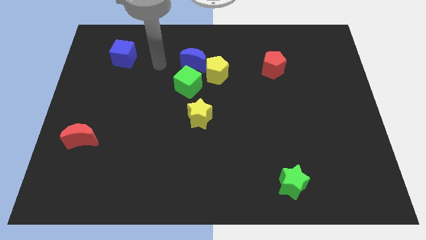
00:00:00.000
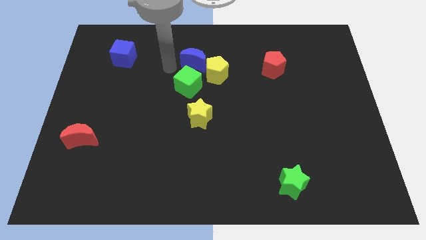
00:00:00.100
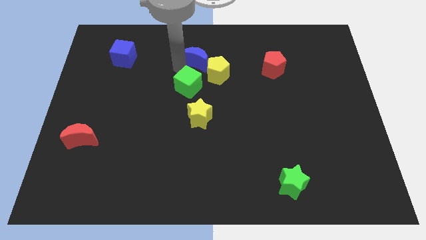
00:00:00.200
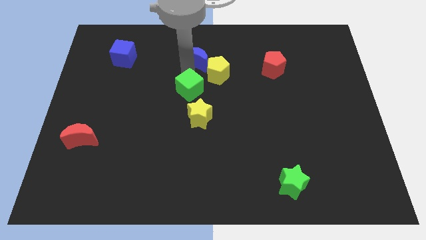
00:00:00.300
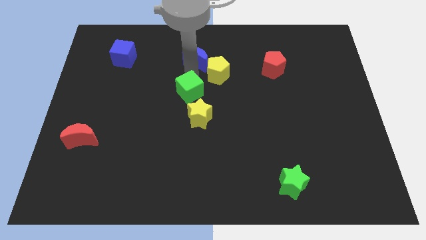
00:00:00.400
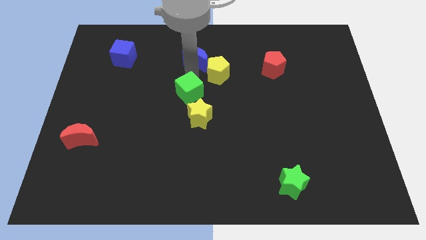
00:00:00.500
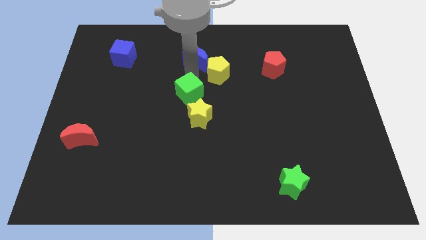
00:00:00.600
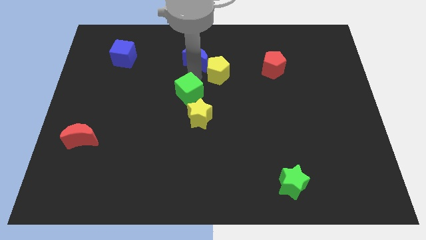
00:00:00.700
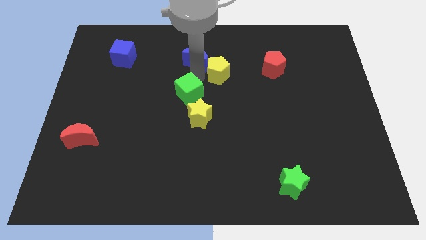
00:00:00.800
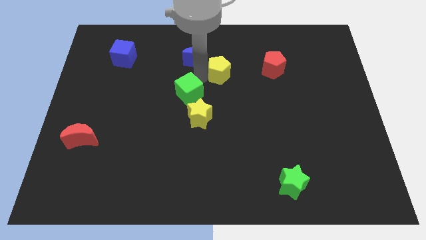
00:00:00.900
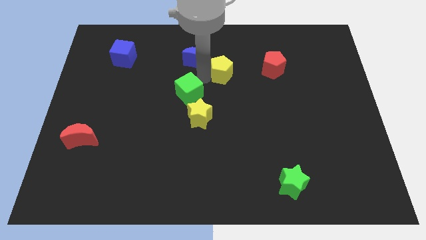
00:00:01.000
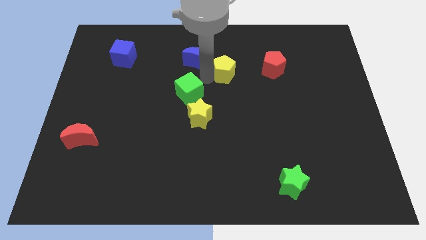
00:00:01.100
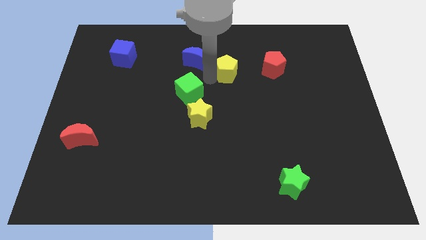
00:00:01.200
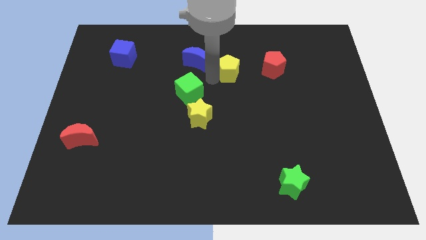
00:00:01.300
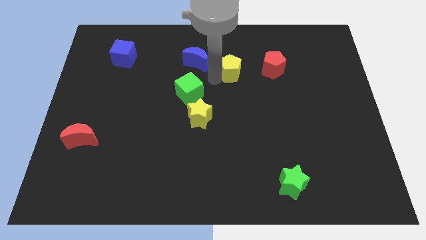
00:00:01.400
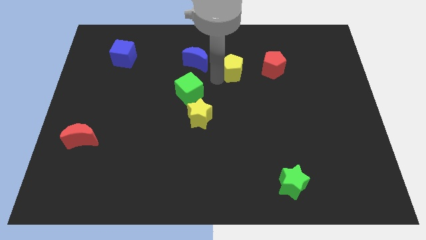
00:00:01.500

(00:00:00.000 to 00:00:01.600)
separate the yellow pentagon from the blue moon and green cube

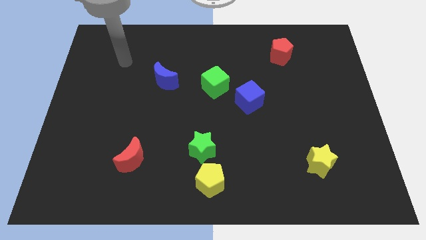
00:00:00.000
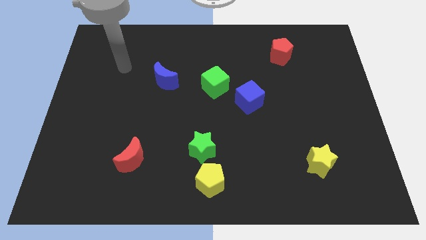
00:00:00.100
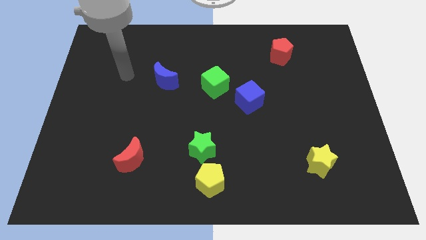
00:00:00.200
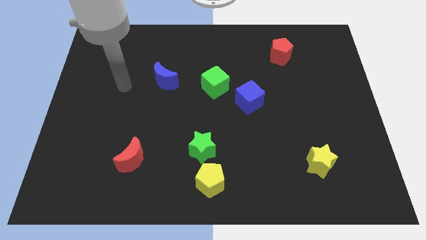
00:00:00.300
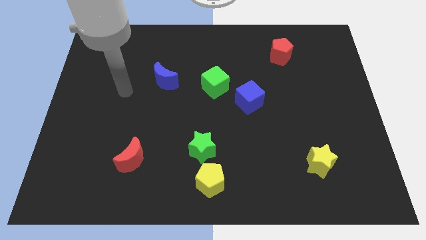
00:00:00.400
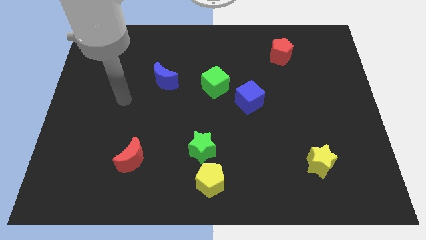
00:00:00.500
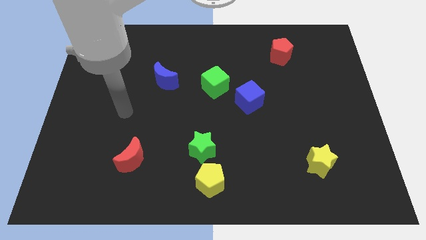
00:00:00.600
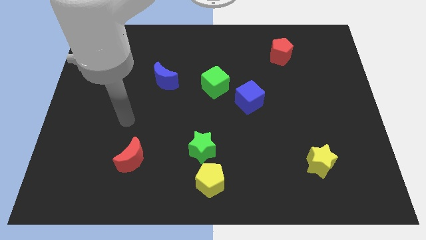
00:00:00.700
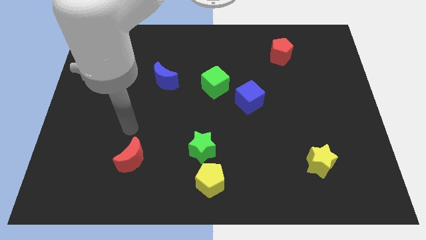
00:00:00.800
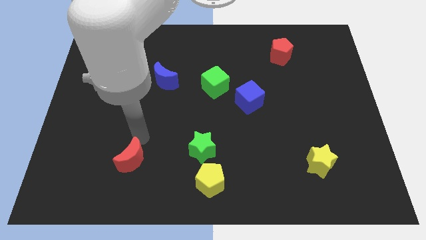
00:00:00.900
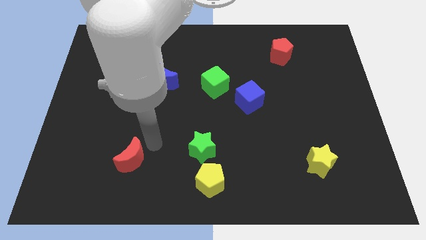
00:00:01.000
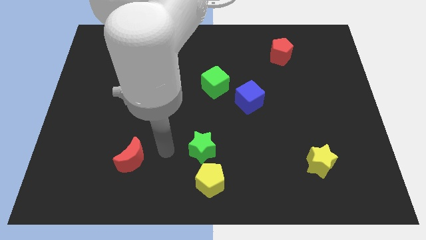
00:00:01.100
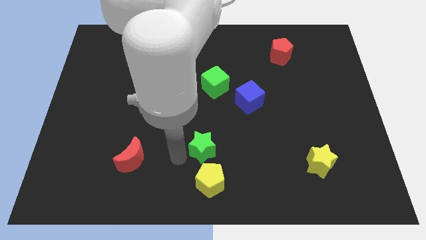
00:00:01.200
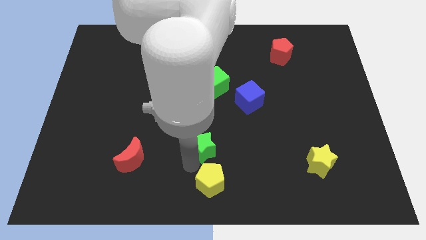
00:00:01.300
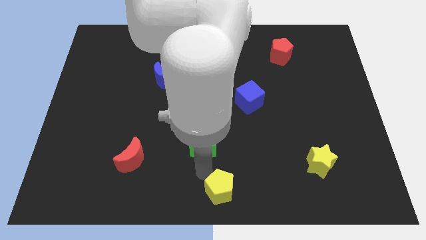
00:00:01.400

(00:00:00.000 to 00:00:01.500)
separate the green star from the yellow pentagon

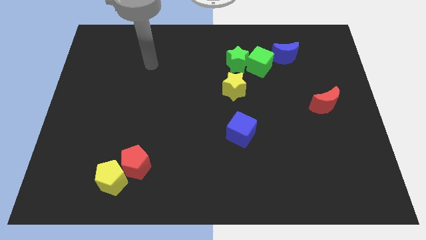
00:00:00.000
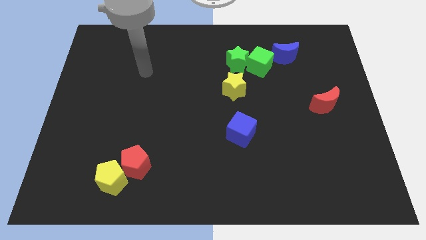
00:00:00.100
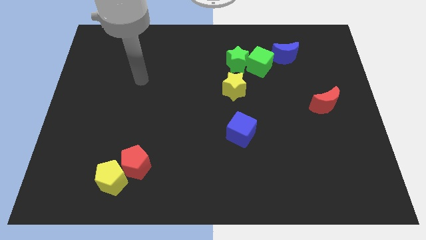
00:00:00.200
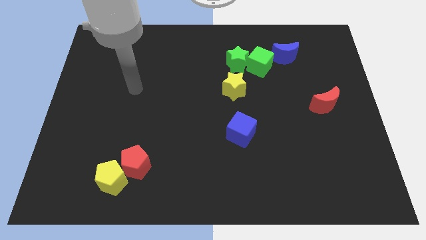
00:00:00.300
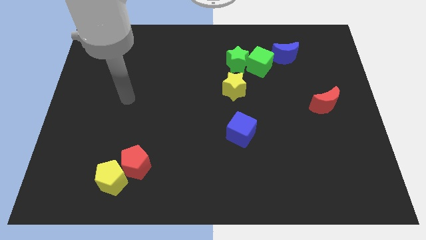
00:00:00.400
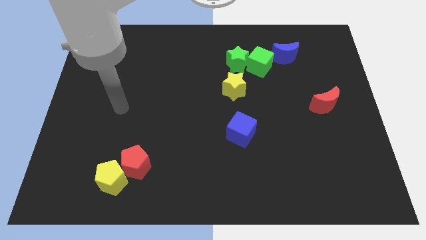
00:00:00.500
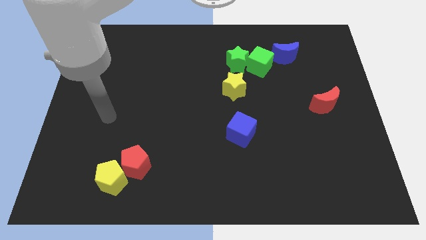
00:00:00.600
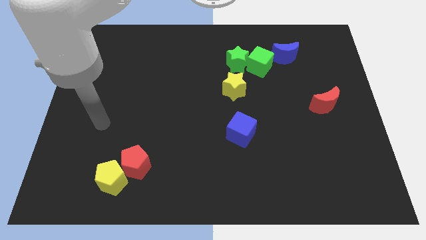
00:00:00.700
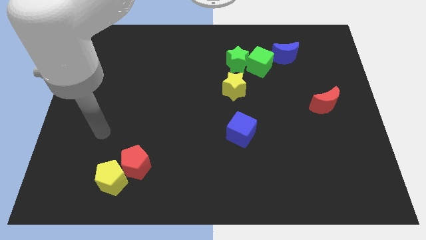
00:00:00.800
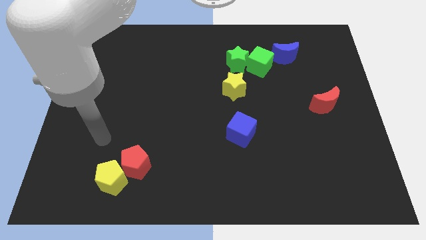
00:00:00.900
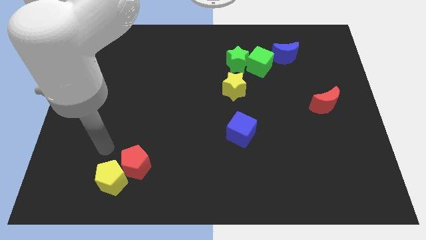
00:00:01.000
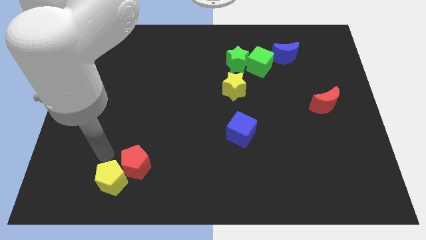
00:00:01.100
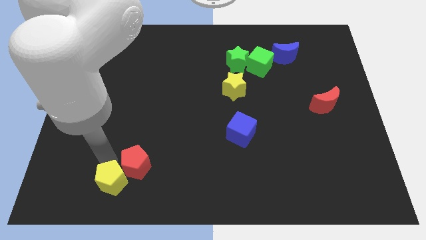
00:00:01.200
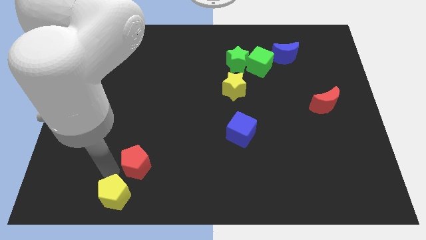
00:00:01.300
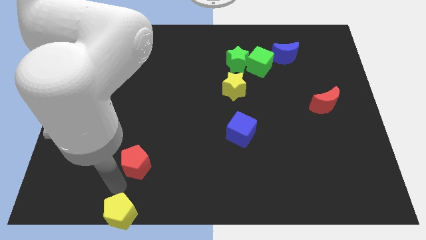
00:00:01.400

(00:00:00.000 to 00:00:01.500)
separate the red pentagon from the yellow pentagon

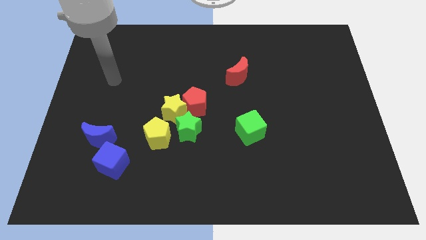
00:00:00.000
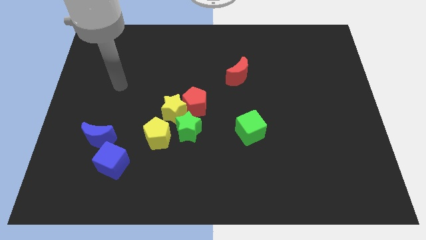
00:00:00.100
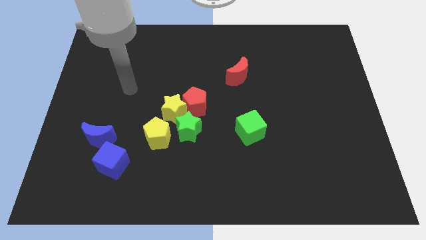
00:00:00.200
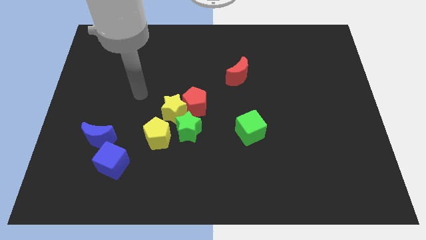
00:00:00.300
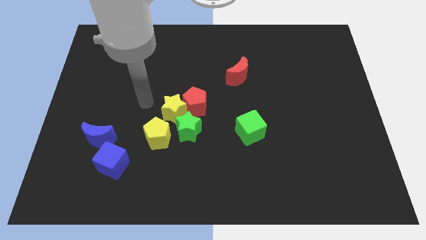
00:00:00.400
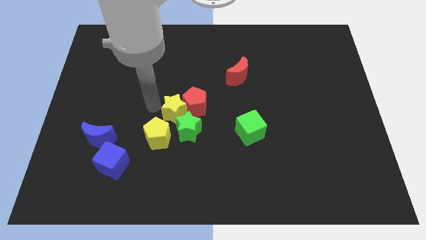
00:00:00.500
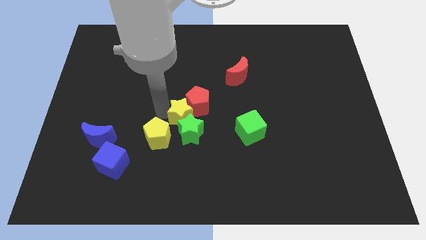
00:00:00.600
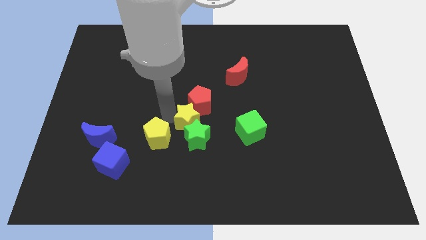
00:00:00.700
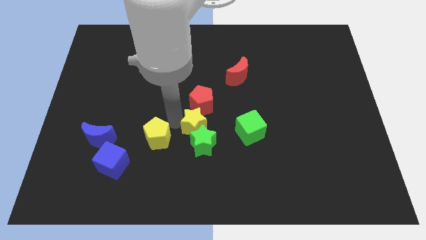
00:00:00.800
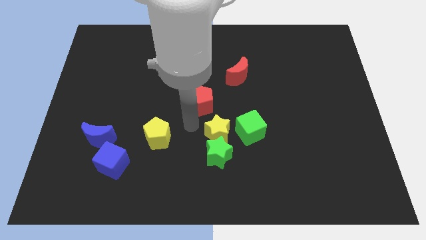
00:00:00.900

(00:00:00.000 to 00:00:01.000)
move the red pentagon away from the yellow star and green star

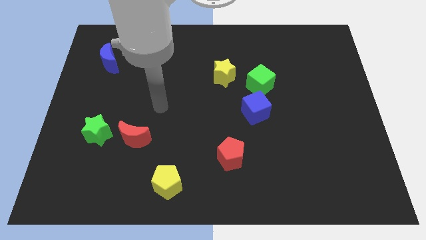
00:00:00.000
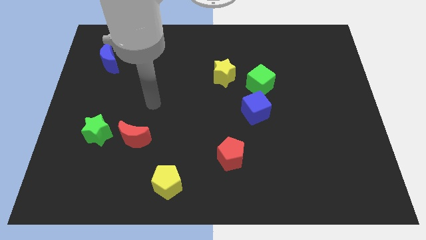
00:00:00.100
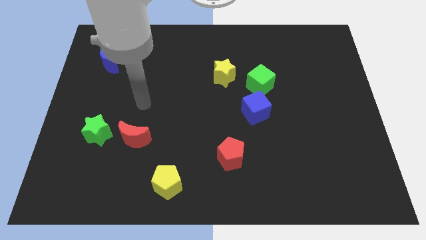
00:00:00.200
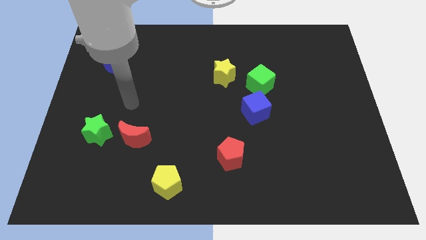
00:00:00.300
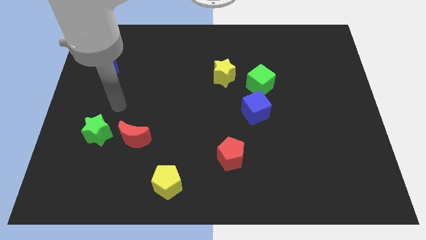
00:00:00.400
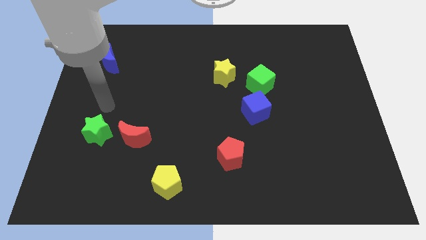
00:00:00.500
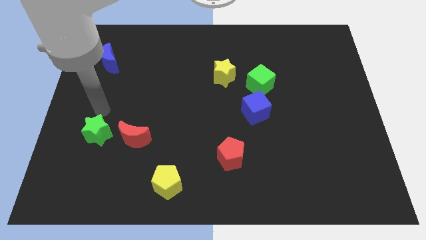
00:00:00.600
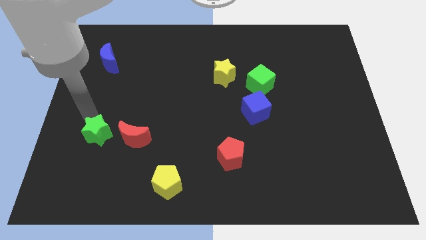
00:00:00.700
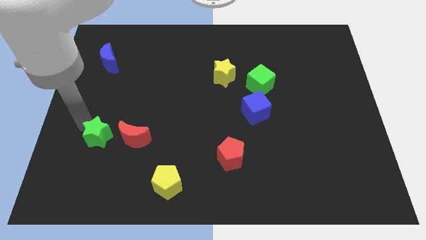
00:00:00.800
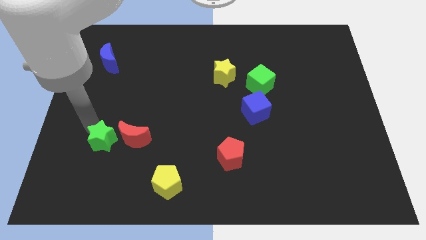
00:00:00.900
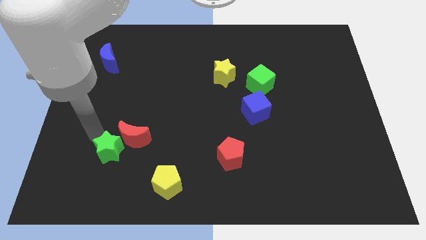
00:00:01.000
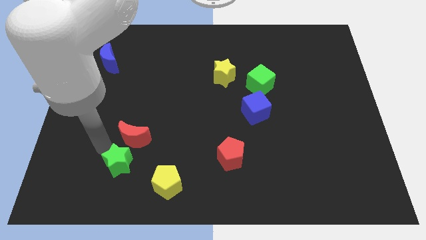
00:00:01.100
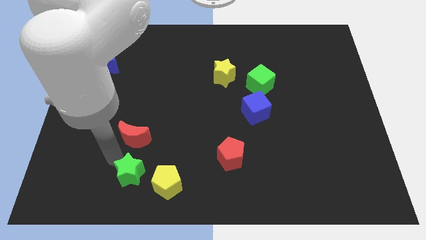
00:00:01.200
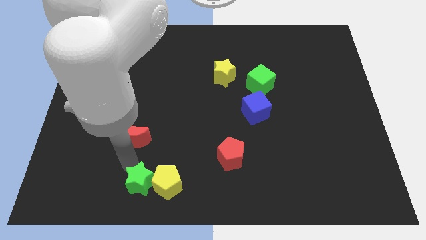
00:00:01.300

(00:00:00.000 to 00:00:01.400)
pull the red moon apart from the green star

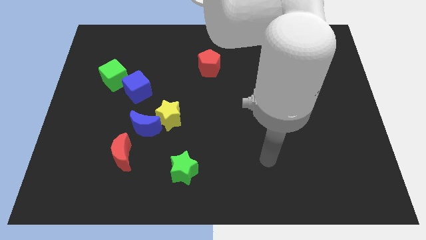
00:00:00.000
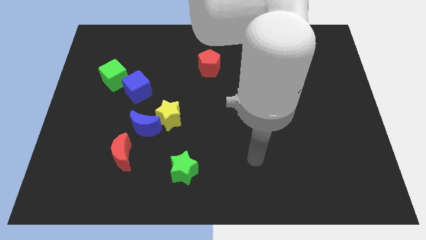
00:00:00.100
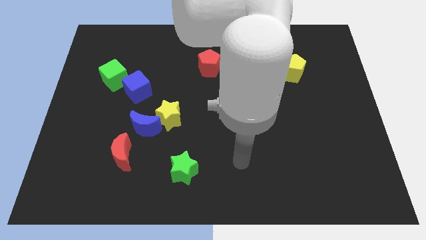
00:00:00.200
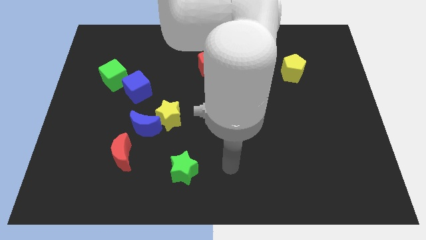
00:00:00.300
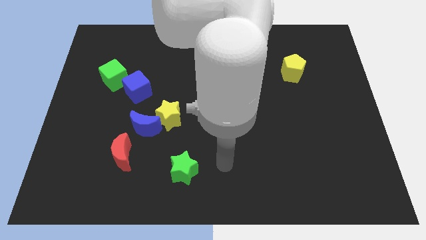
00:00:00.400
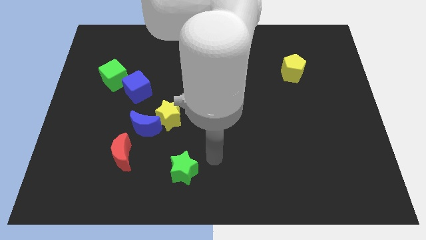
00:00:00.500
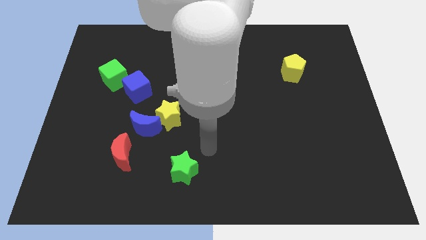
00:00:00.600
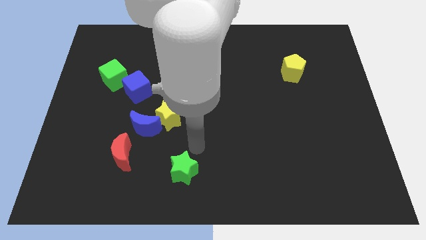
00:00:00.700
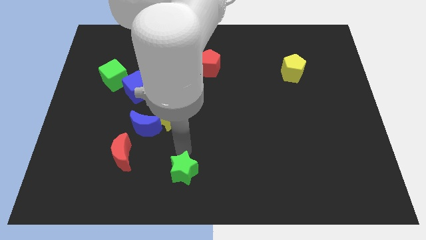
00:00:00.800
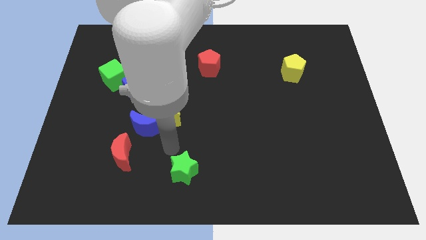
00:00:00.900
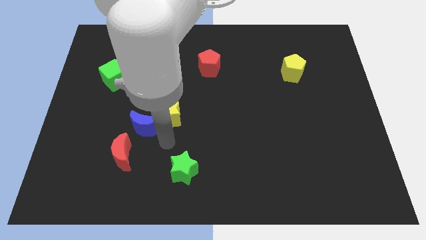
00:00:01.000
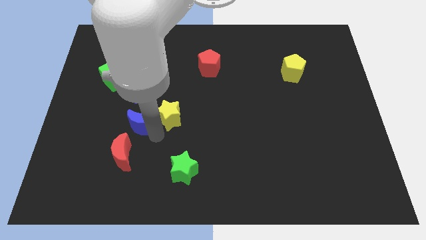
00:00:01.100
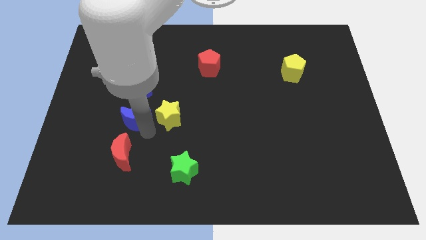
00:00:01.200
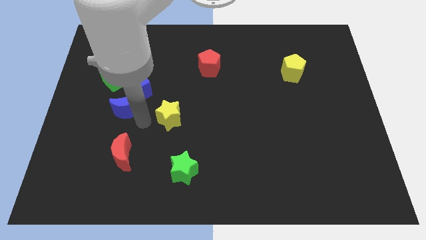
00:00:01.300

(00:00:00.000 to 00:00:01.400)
separate the yellow star from the blue moon

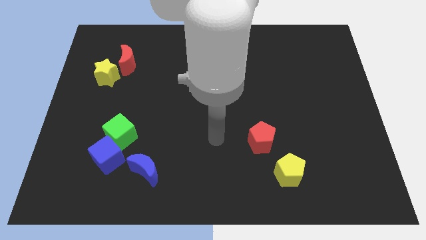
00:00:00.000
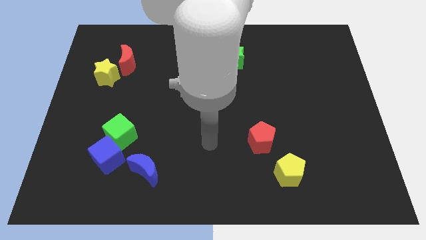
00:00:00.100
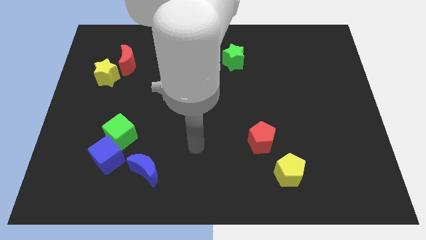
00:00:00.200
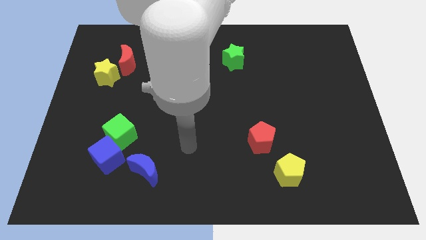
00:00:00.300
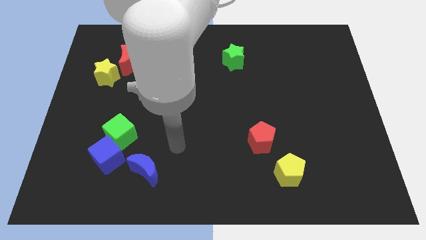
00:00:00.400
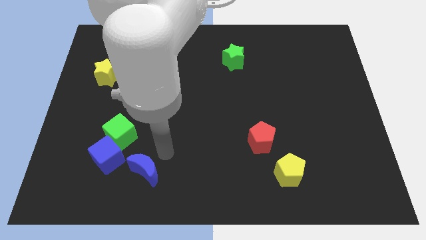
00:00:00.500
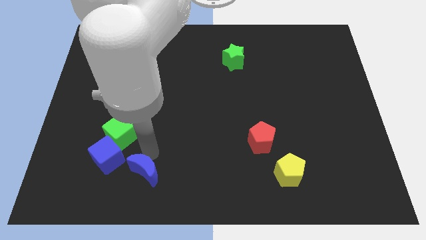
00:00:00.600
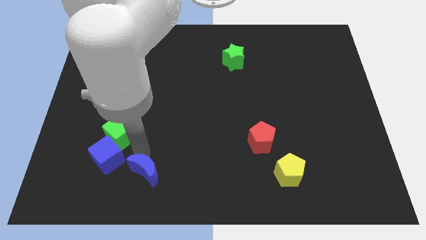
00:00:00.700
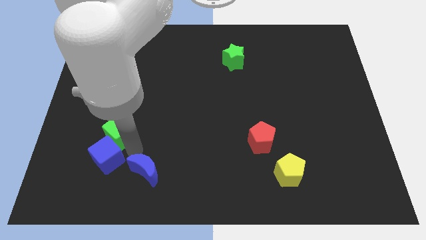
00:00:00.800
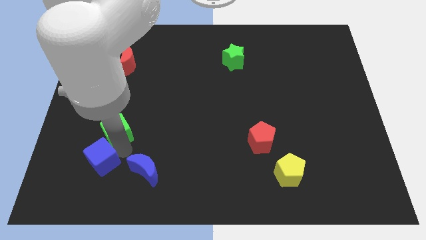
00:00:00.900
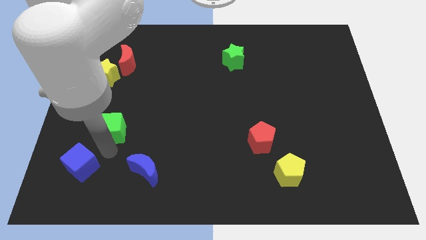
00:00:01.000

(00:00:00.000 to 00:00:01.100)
move the green cube away from the blue cube
